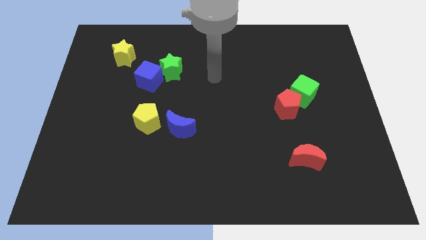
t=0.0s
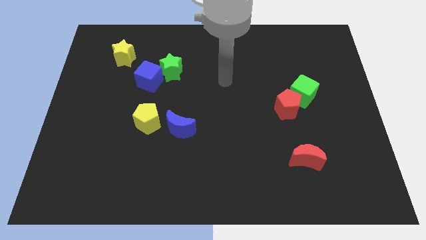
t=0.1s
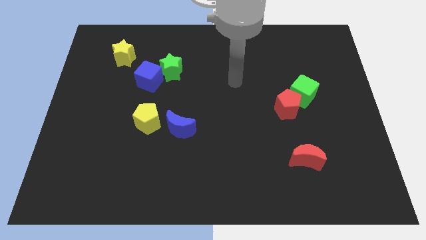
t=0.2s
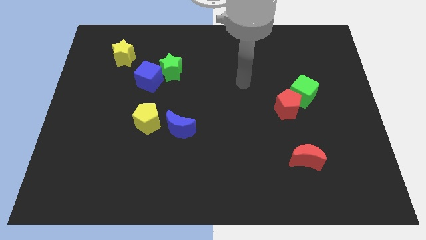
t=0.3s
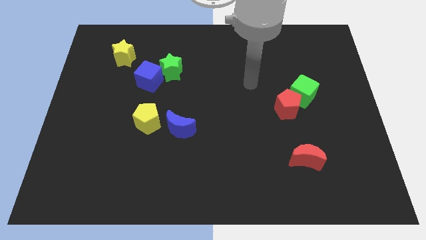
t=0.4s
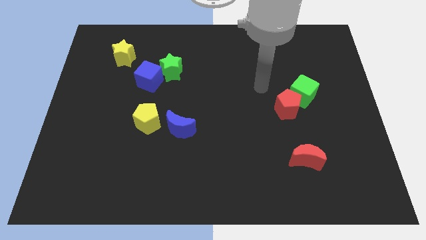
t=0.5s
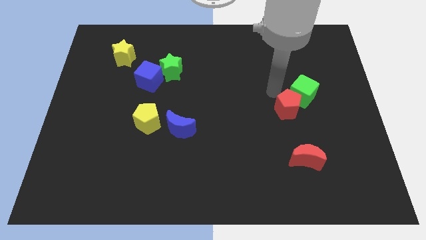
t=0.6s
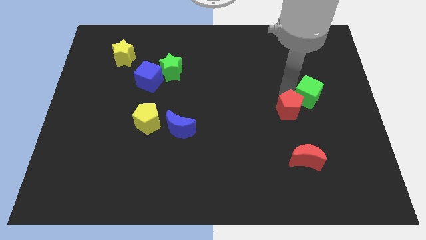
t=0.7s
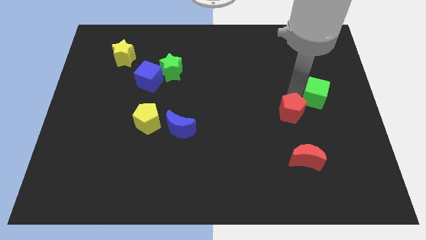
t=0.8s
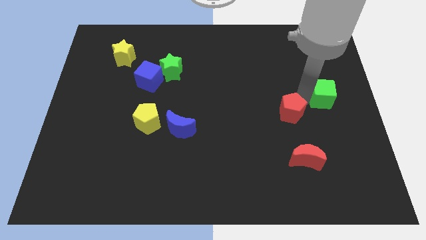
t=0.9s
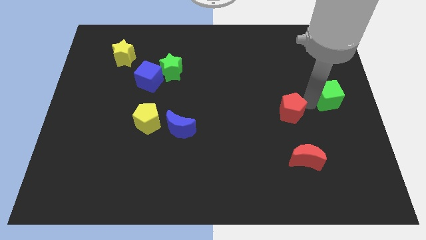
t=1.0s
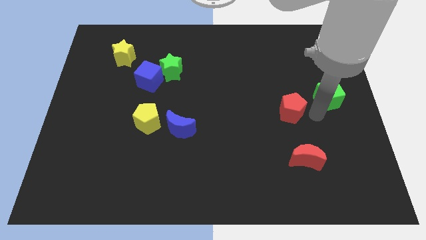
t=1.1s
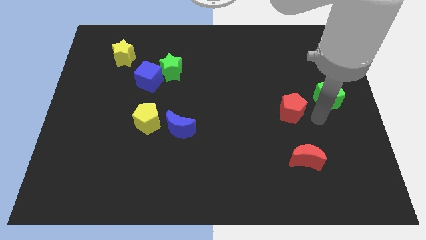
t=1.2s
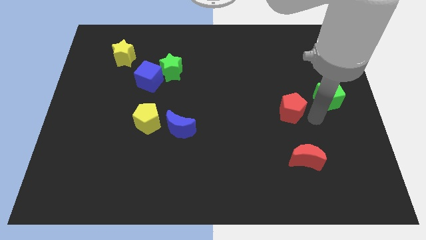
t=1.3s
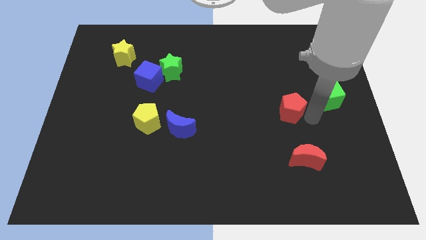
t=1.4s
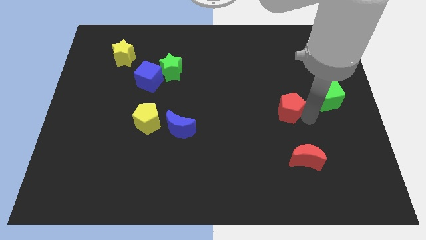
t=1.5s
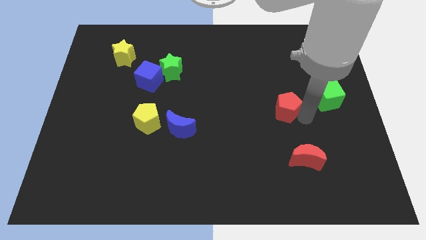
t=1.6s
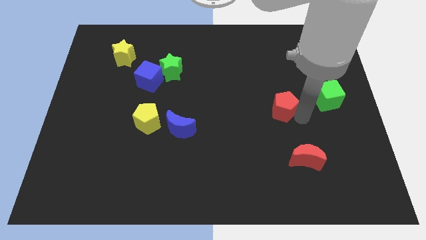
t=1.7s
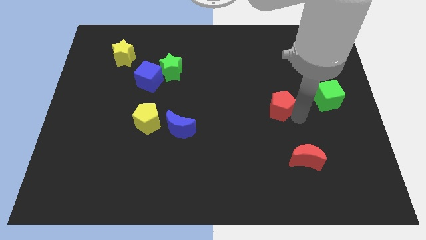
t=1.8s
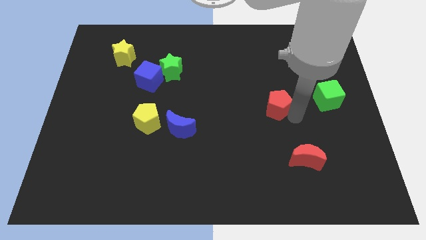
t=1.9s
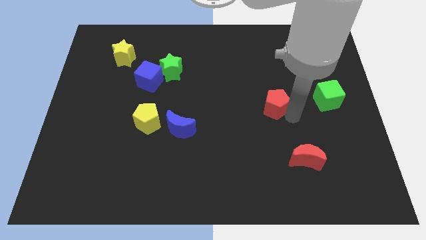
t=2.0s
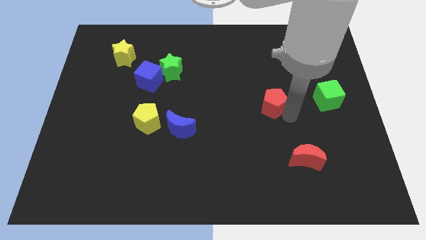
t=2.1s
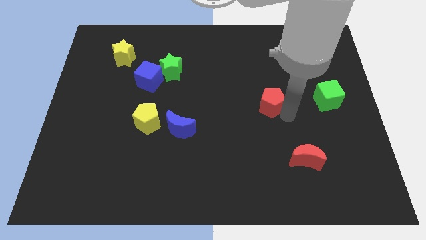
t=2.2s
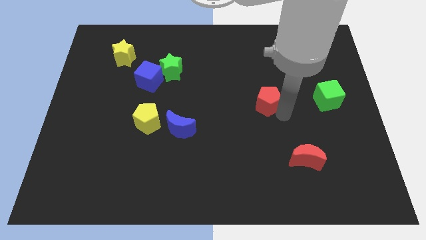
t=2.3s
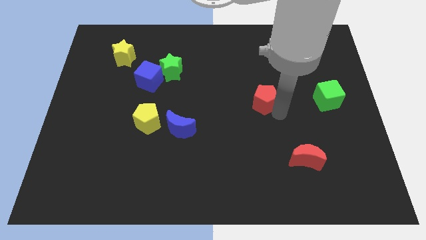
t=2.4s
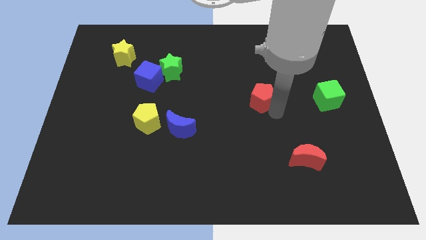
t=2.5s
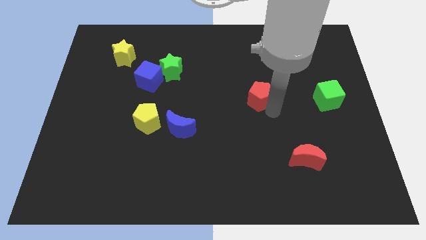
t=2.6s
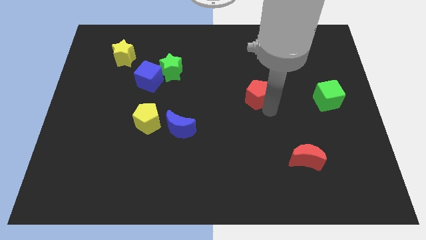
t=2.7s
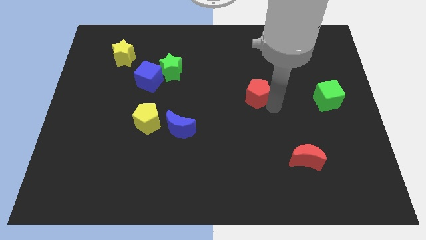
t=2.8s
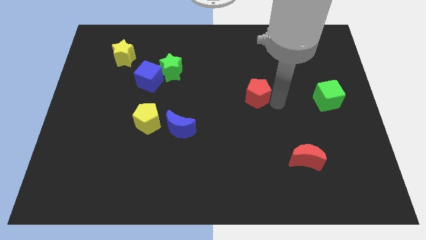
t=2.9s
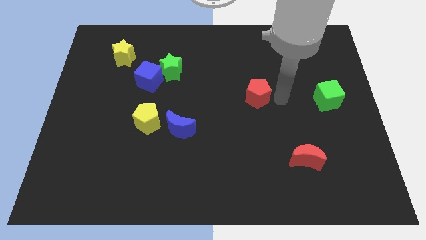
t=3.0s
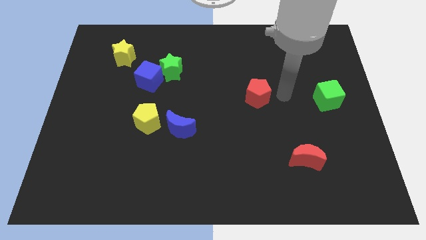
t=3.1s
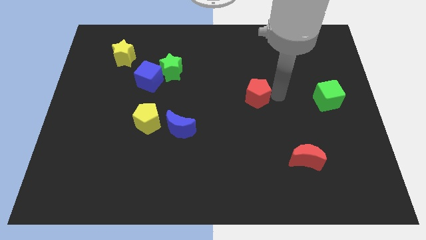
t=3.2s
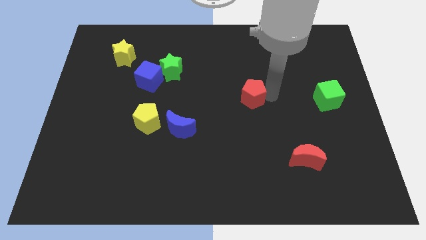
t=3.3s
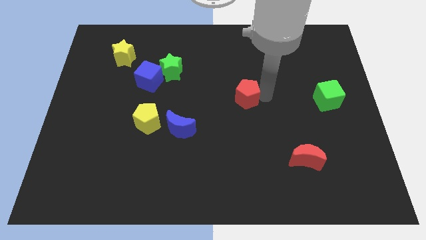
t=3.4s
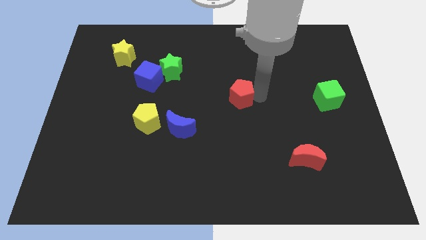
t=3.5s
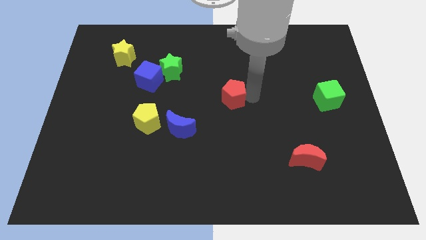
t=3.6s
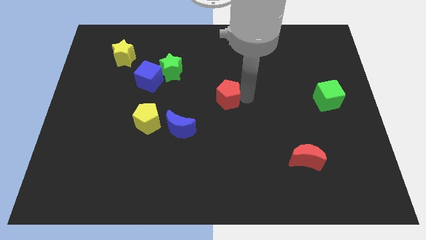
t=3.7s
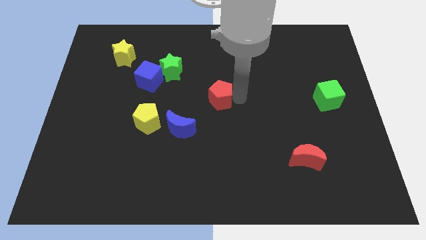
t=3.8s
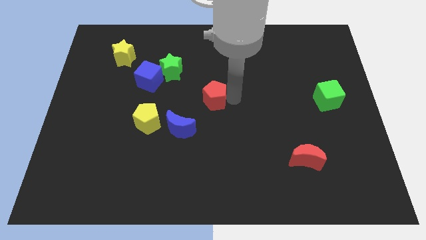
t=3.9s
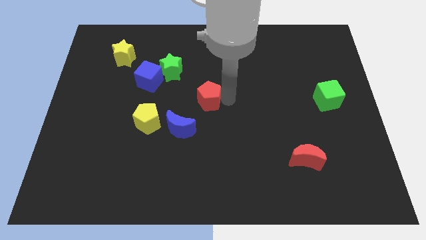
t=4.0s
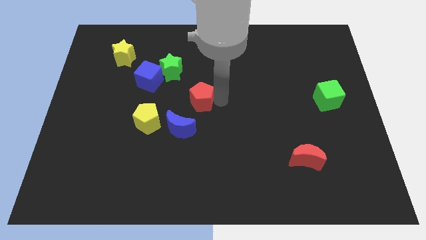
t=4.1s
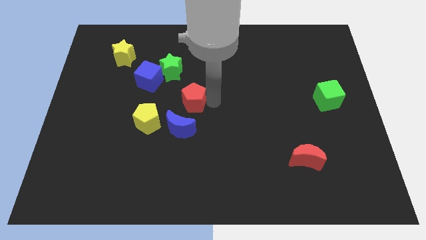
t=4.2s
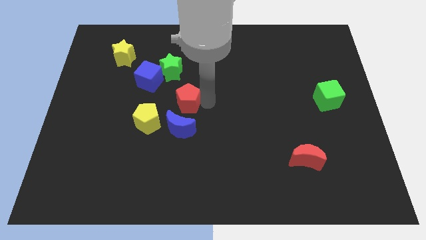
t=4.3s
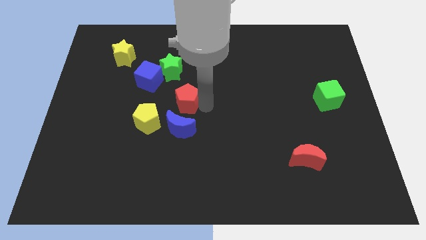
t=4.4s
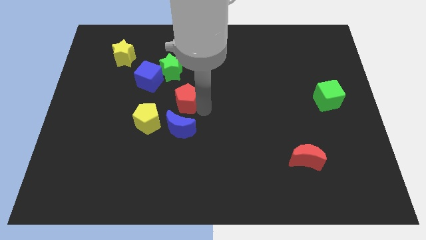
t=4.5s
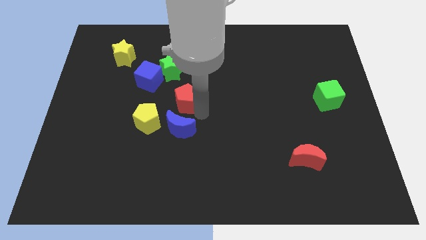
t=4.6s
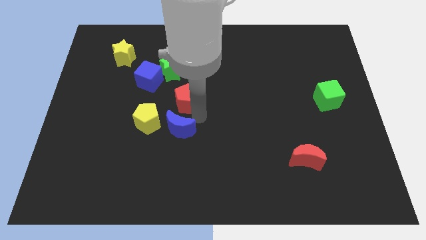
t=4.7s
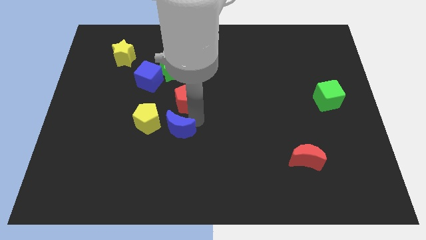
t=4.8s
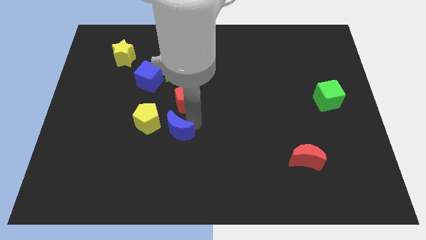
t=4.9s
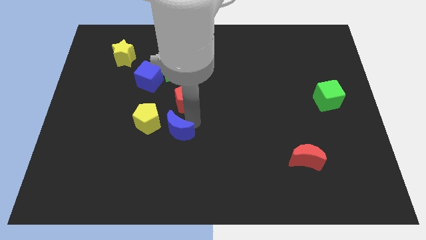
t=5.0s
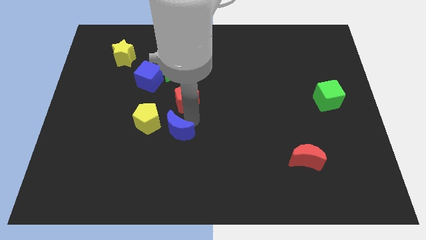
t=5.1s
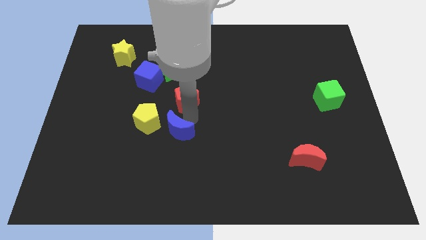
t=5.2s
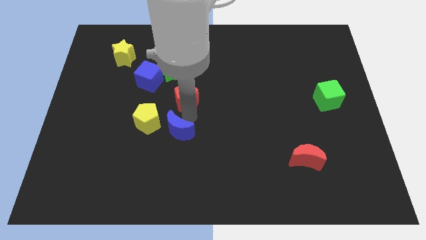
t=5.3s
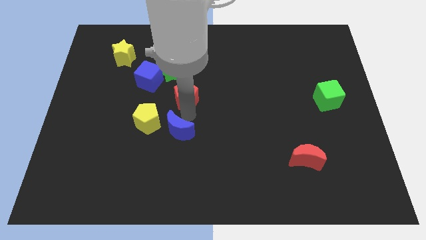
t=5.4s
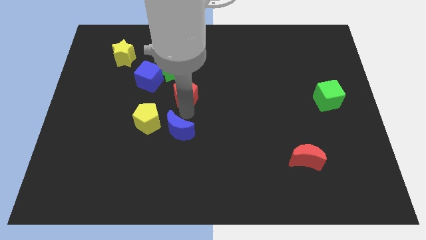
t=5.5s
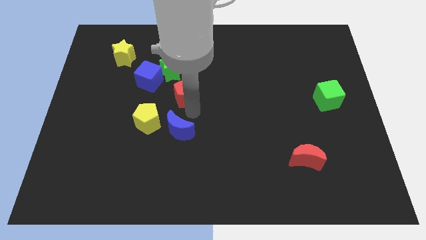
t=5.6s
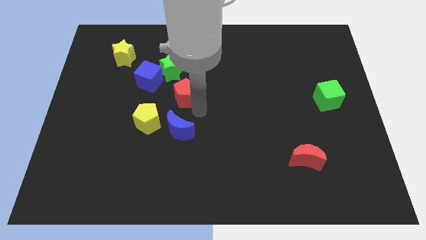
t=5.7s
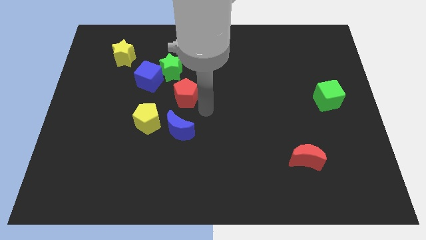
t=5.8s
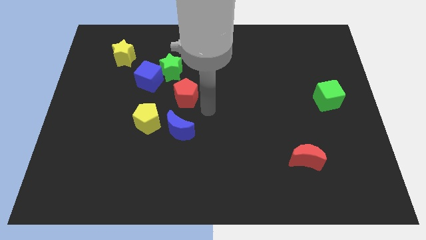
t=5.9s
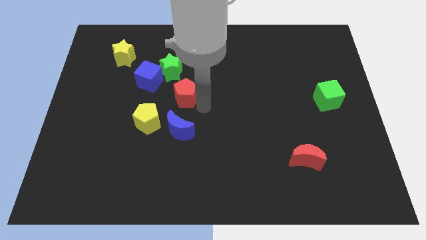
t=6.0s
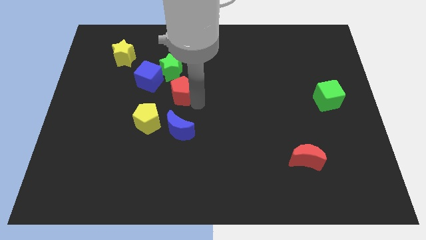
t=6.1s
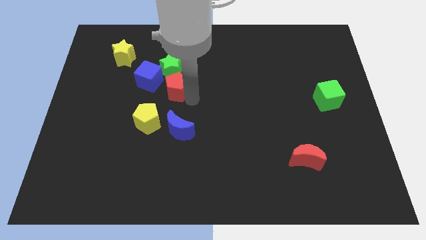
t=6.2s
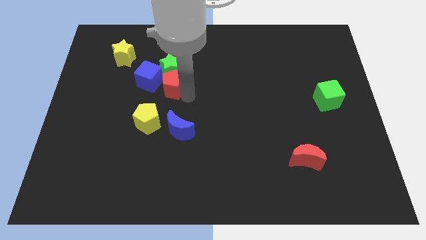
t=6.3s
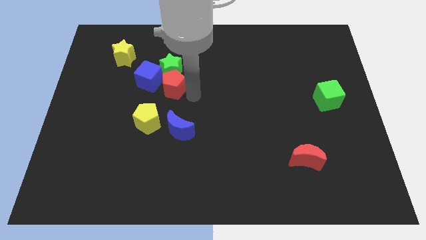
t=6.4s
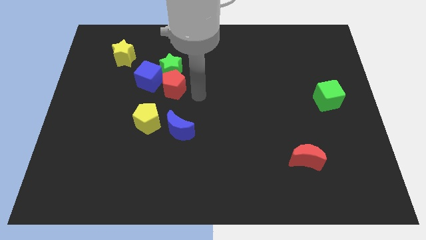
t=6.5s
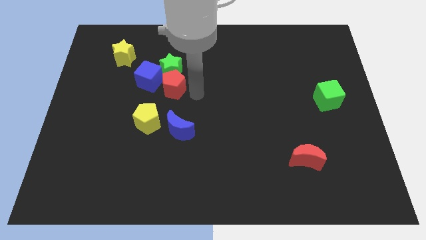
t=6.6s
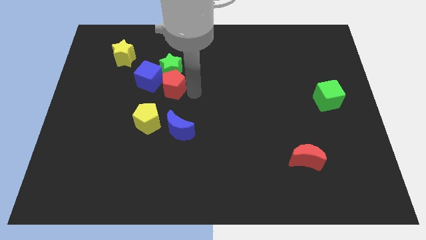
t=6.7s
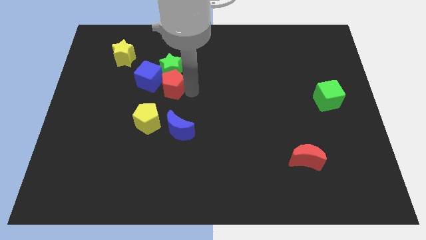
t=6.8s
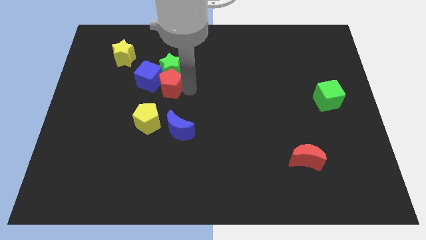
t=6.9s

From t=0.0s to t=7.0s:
put the red pentagon to the blue cube

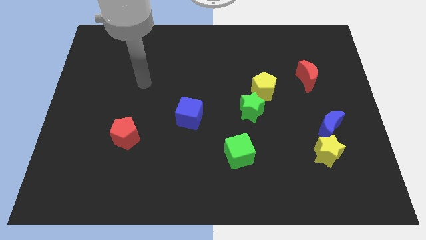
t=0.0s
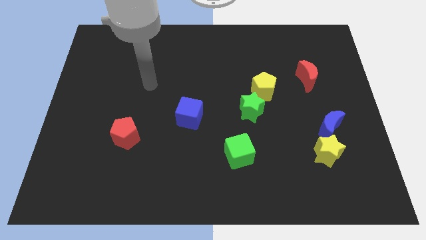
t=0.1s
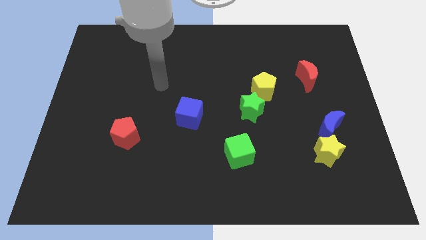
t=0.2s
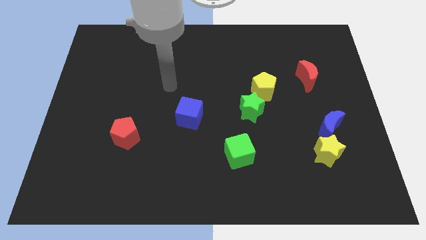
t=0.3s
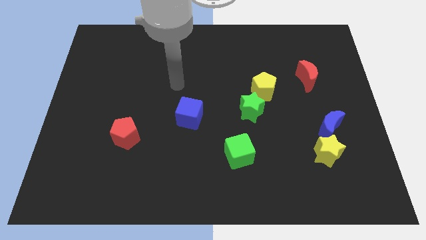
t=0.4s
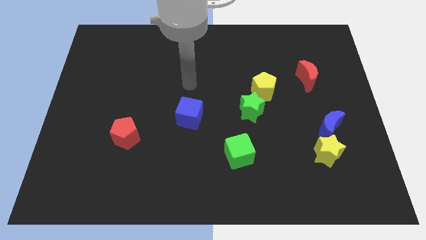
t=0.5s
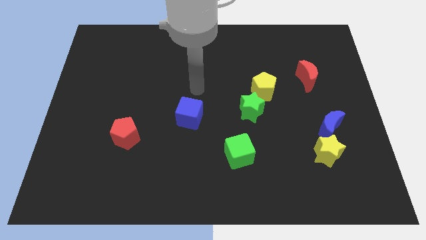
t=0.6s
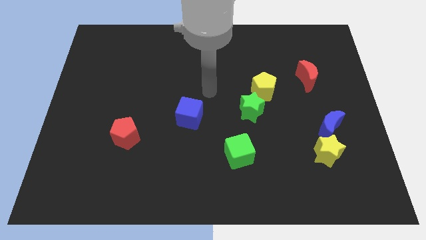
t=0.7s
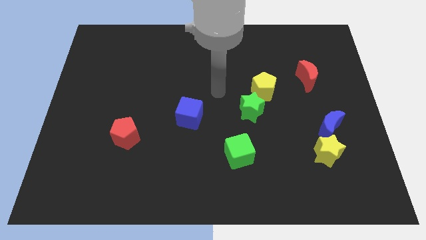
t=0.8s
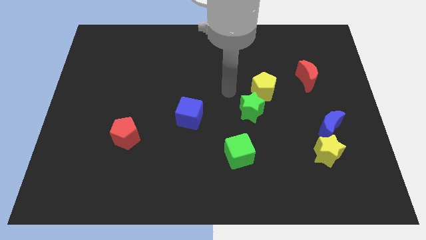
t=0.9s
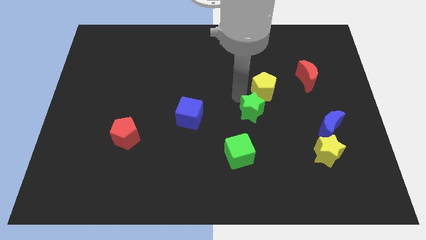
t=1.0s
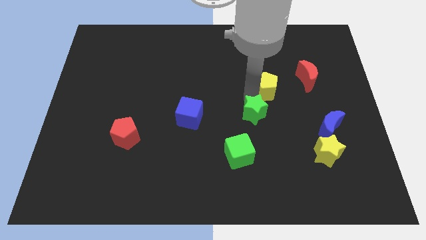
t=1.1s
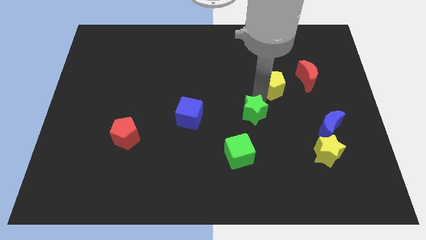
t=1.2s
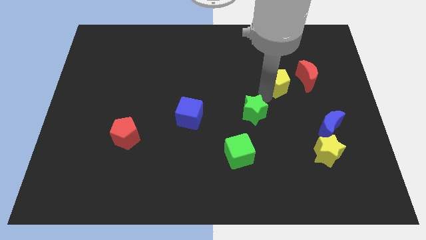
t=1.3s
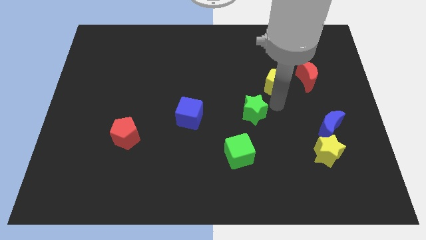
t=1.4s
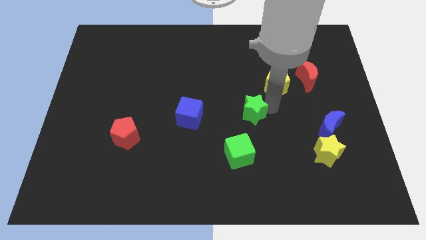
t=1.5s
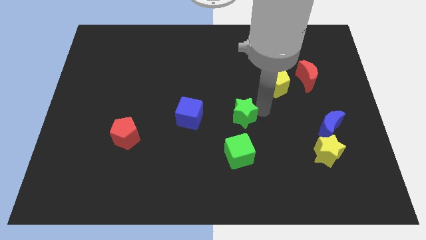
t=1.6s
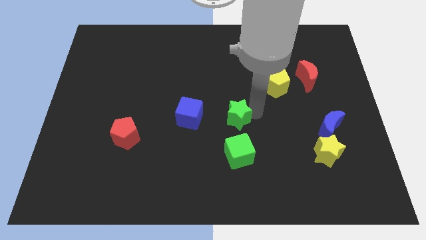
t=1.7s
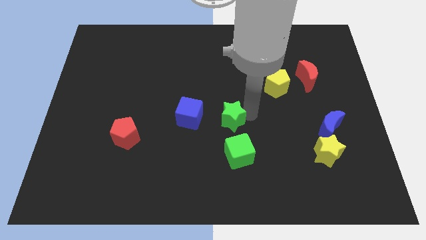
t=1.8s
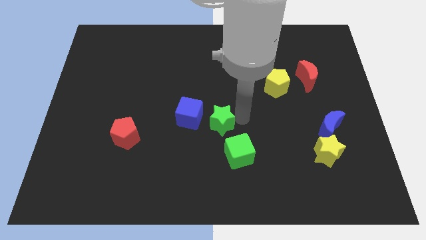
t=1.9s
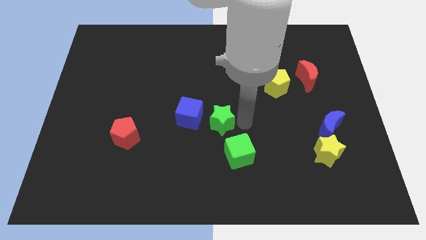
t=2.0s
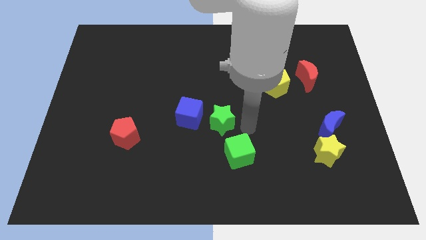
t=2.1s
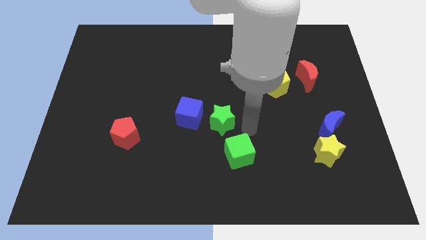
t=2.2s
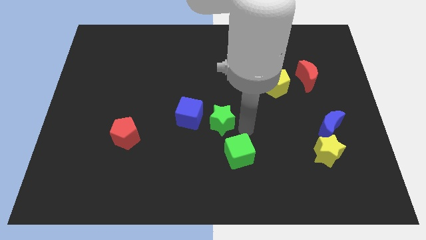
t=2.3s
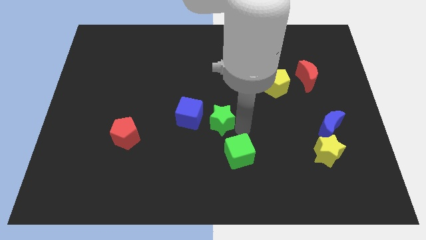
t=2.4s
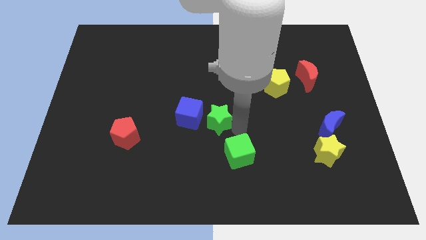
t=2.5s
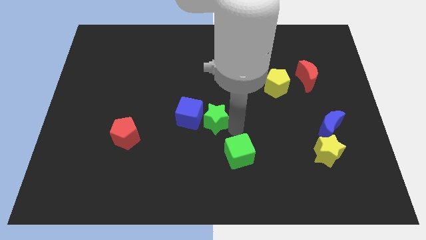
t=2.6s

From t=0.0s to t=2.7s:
move the green star towards the blue cube
